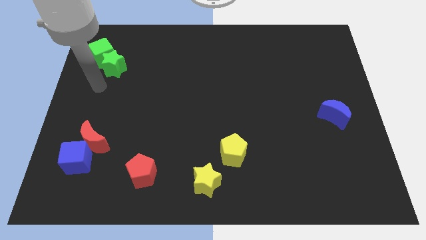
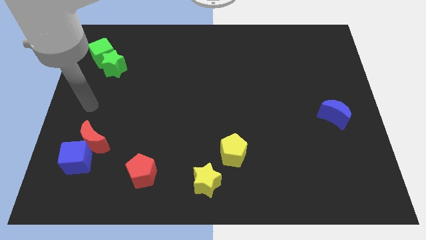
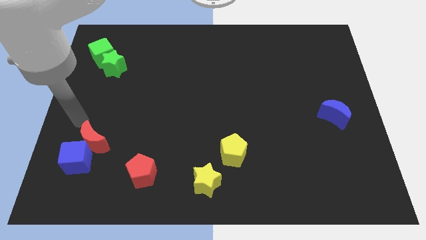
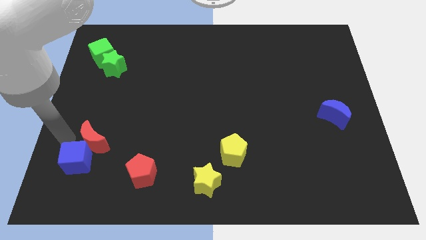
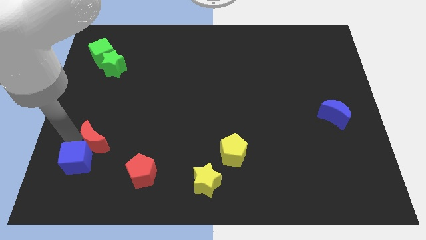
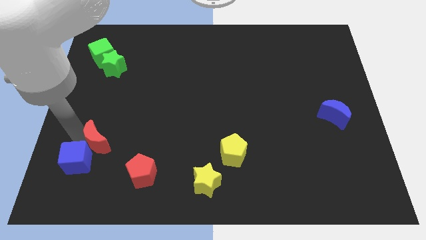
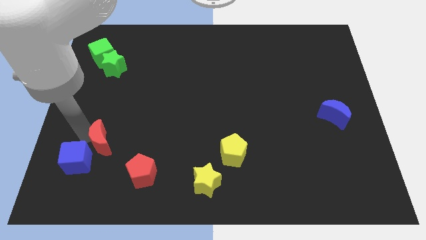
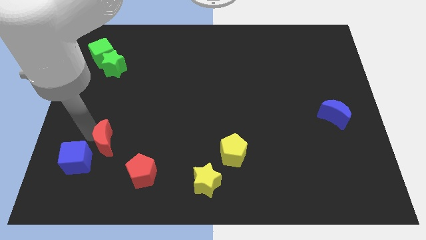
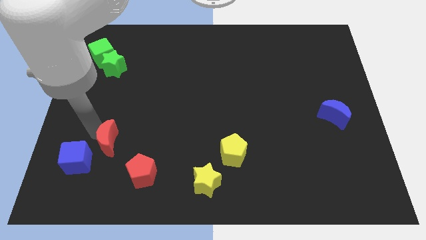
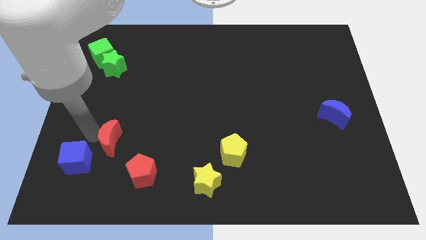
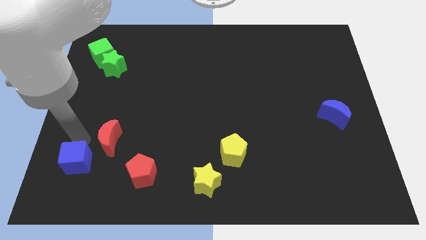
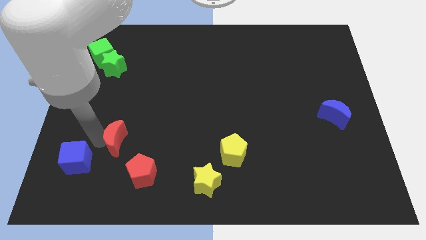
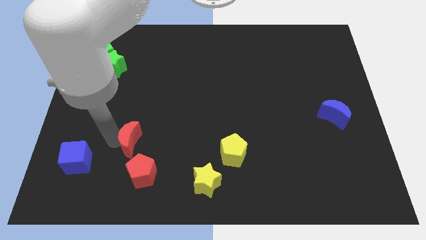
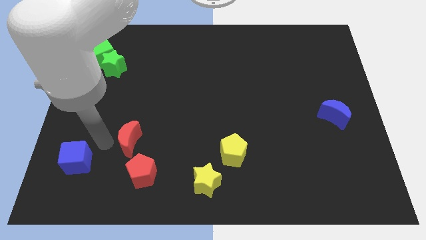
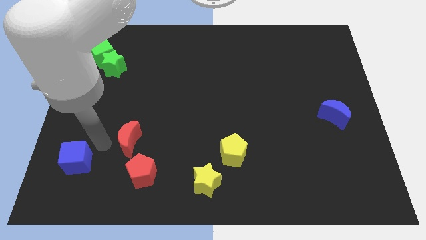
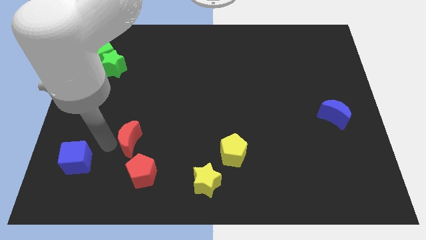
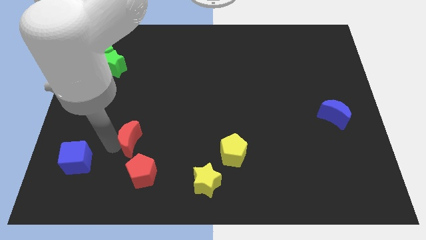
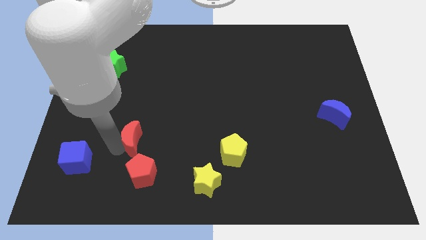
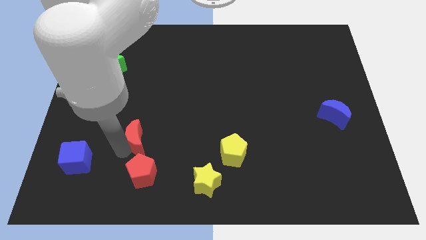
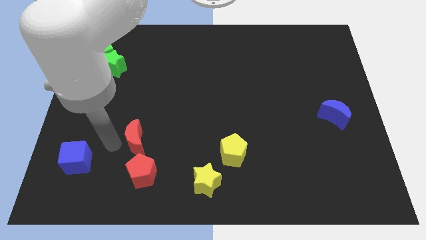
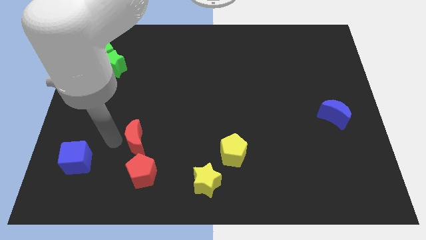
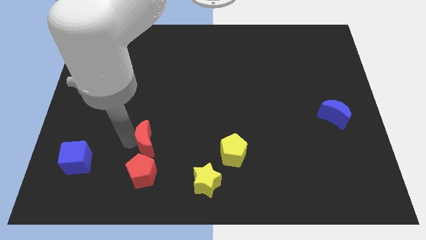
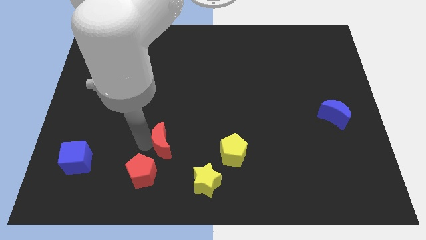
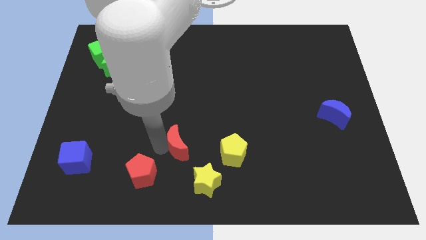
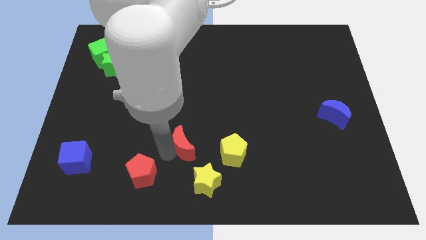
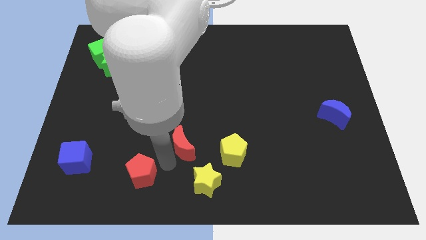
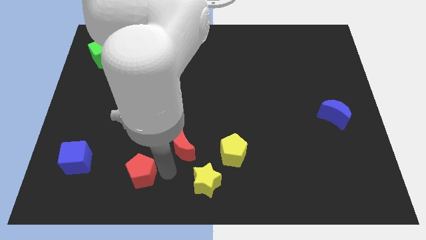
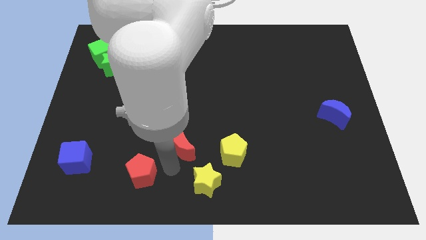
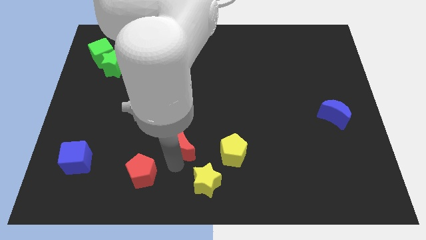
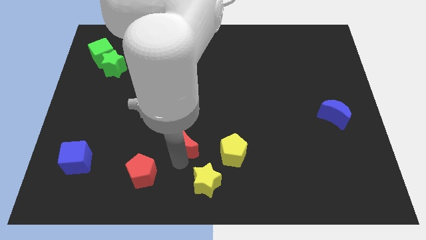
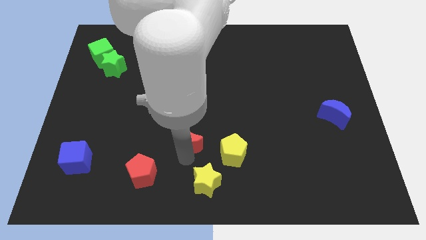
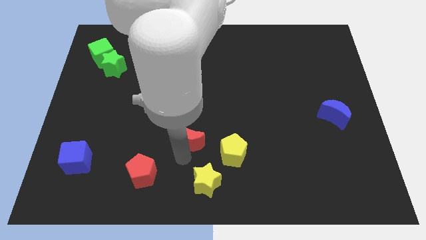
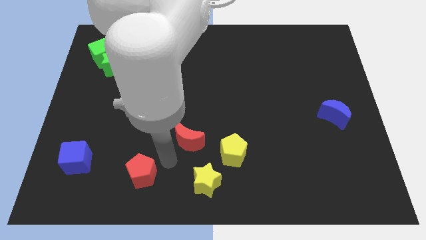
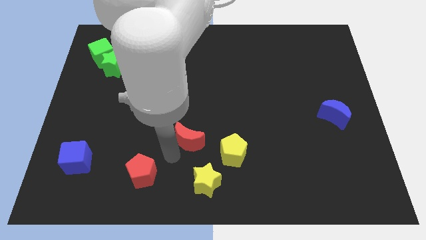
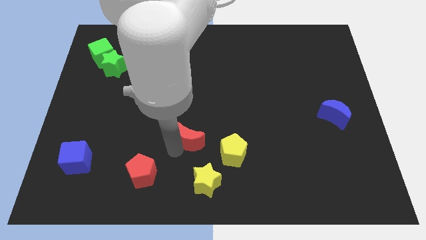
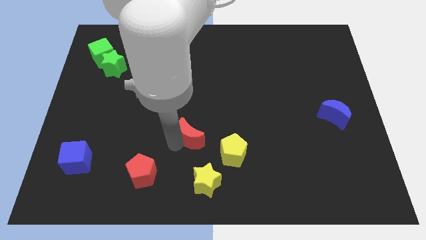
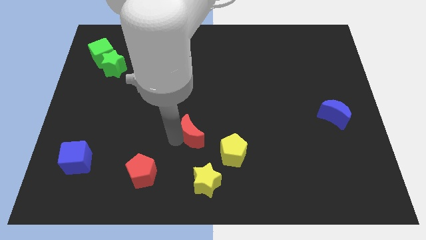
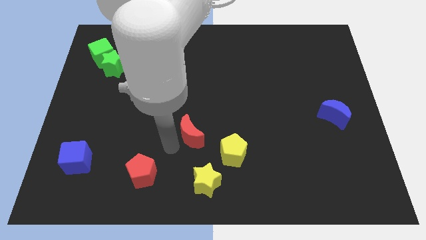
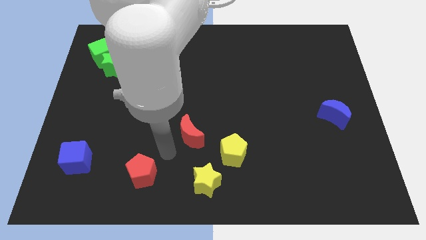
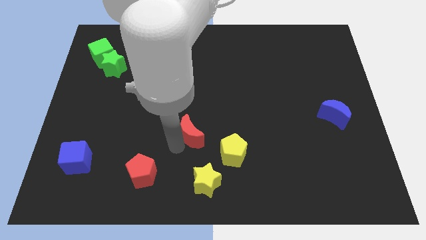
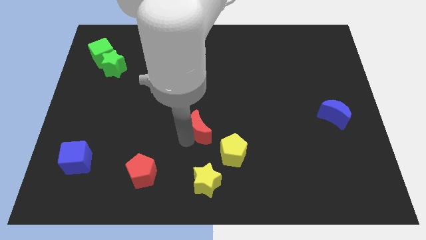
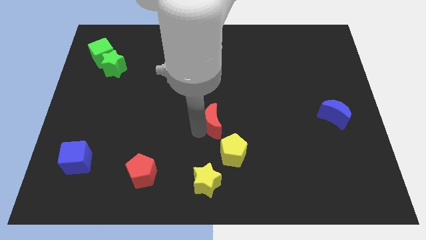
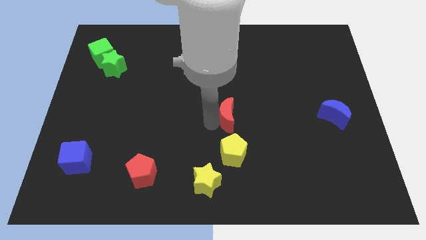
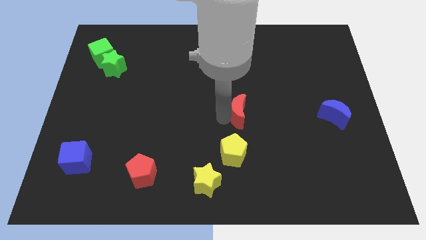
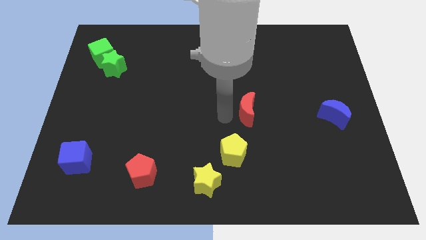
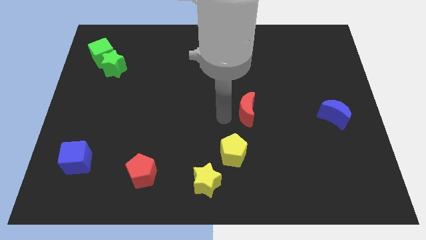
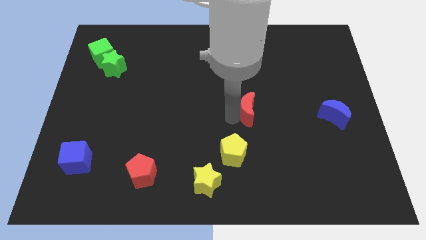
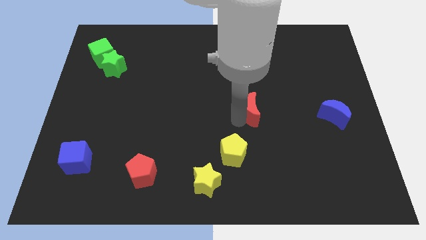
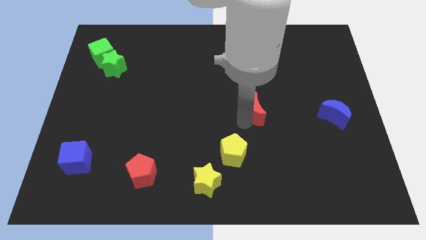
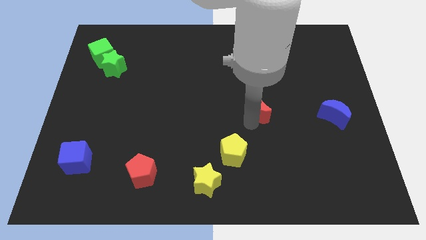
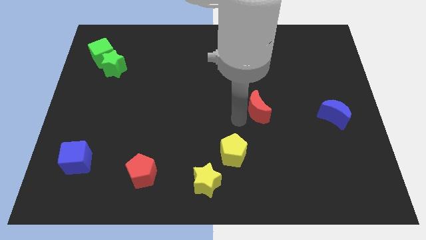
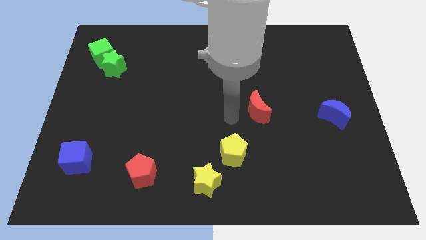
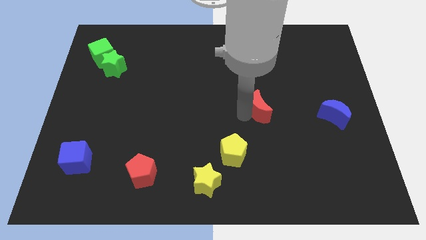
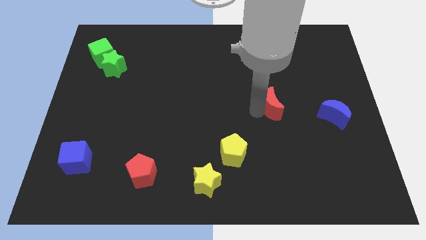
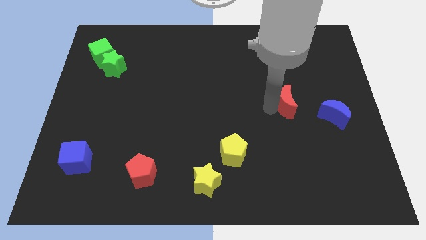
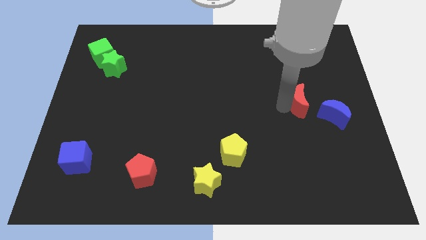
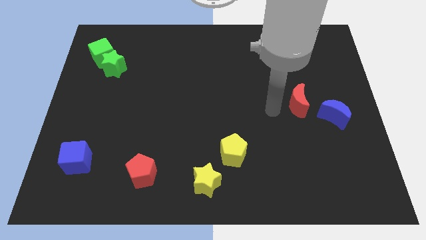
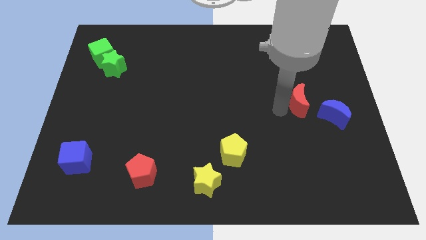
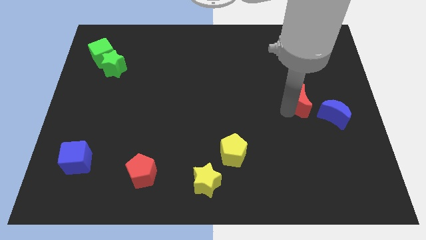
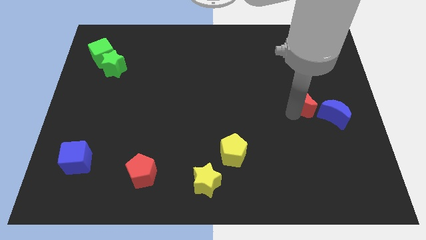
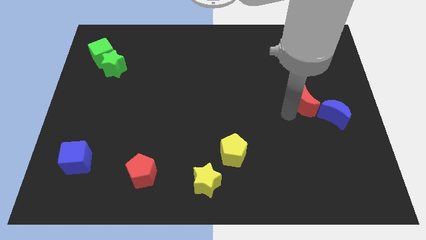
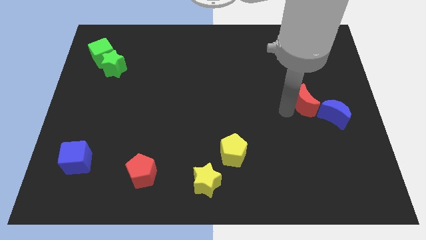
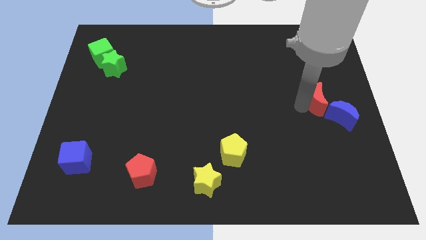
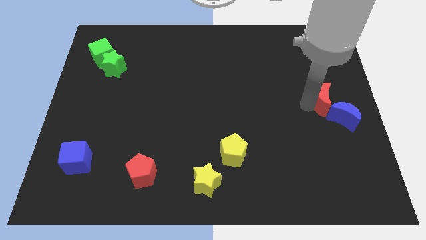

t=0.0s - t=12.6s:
slide the red moon to the right side of the board
